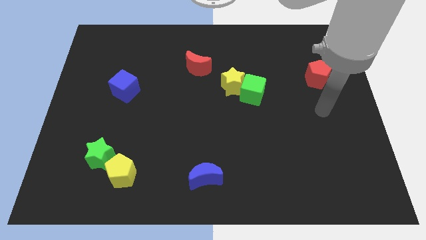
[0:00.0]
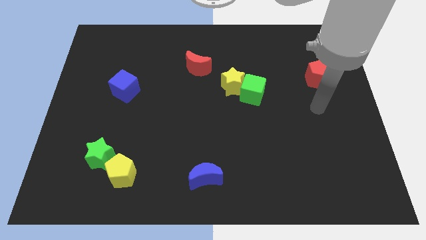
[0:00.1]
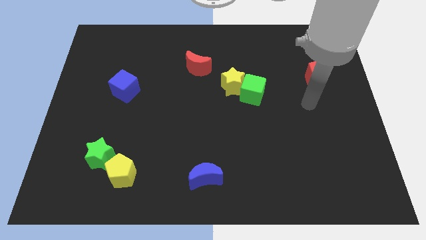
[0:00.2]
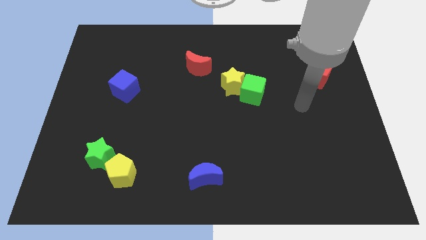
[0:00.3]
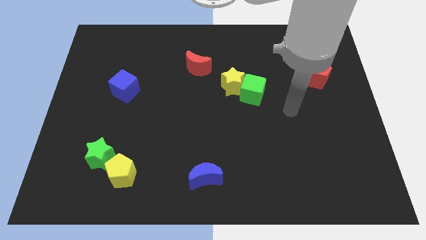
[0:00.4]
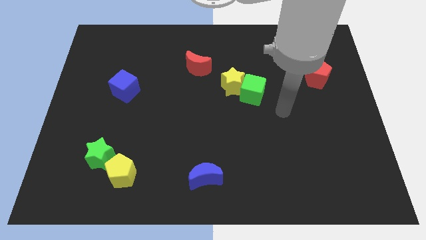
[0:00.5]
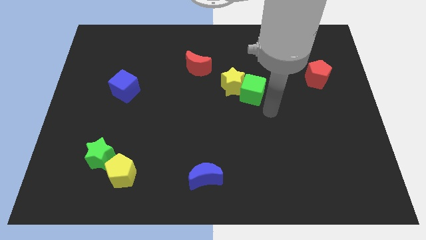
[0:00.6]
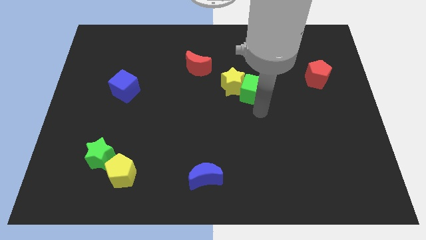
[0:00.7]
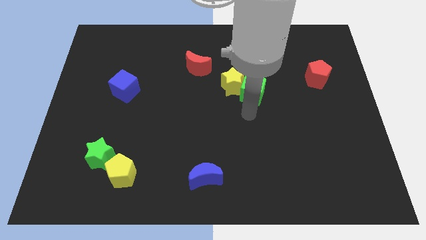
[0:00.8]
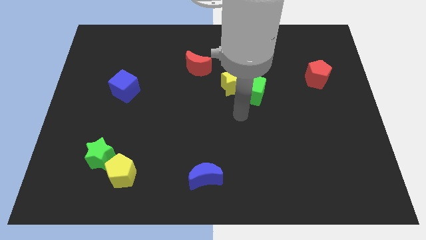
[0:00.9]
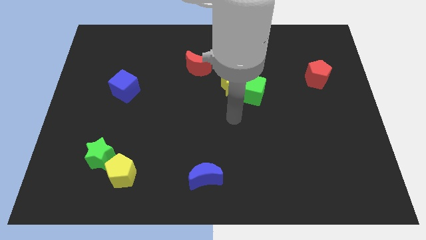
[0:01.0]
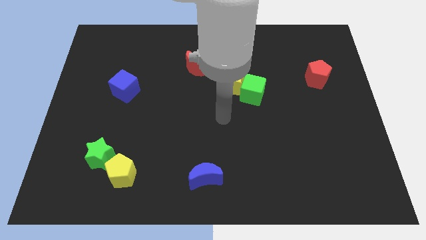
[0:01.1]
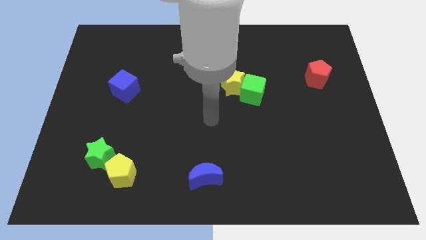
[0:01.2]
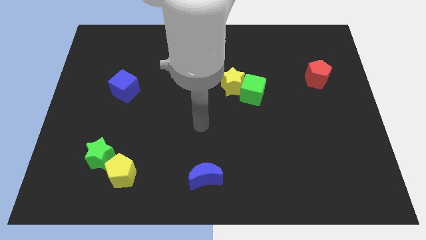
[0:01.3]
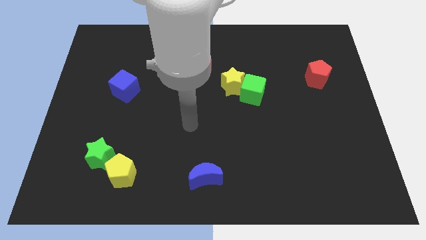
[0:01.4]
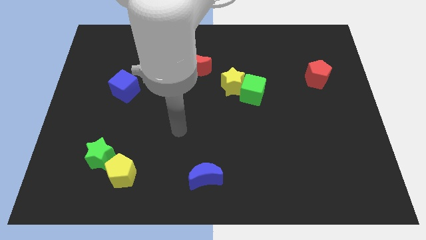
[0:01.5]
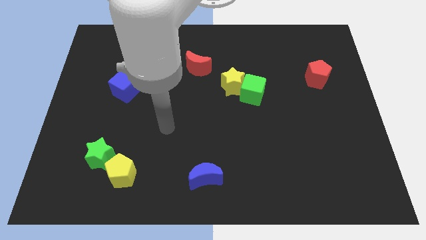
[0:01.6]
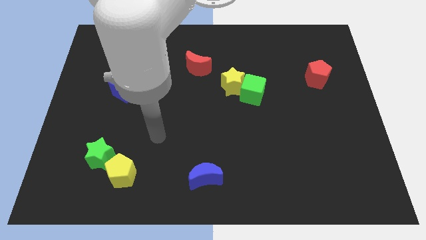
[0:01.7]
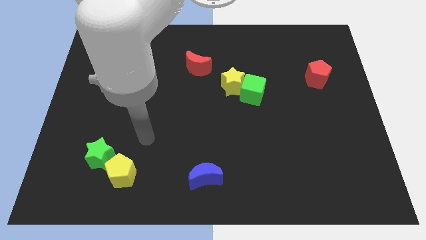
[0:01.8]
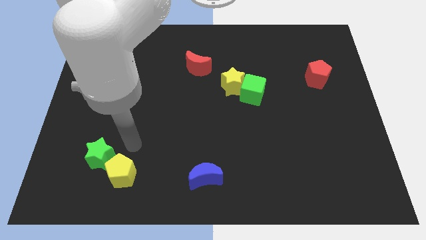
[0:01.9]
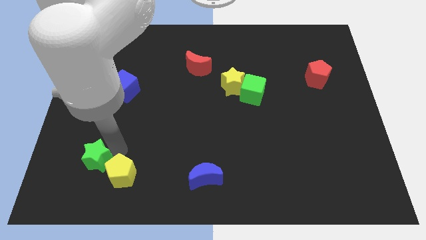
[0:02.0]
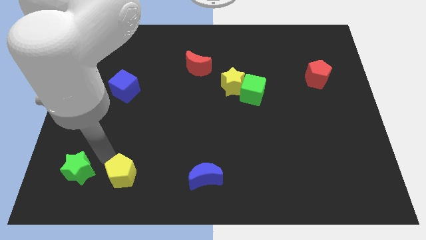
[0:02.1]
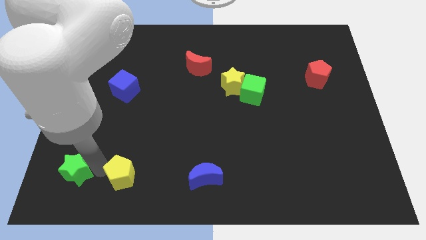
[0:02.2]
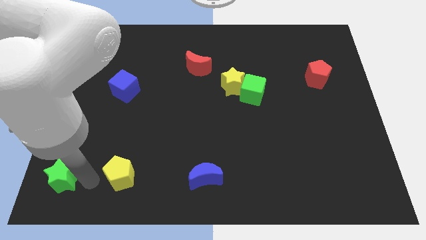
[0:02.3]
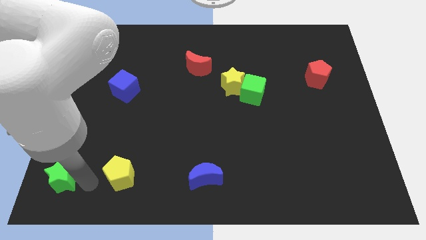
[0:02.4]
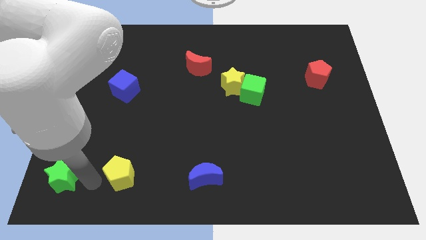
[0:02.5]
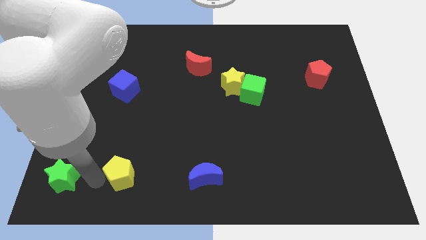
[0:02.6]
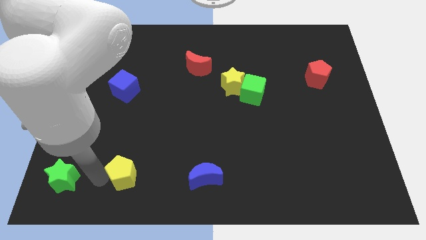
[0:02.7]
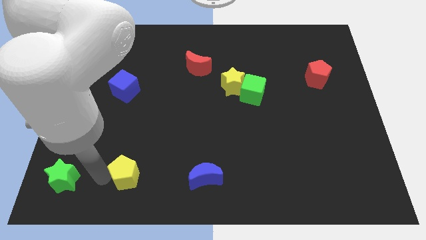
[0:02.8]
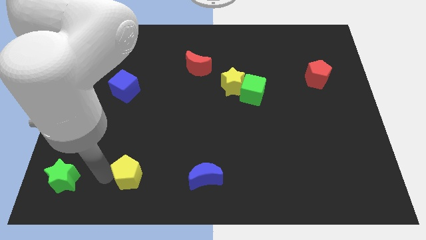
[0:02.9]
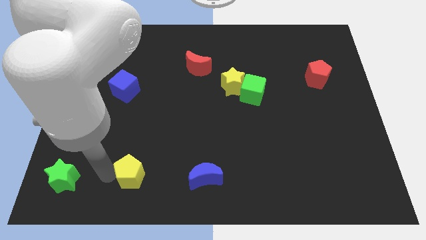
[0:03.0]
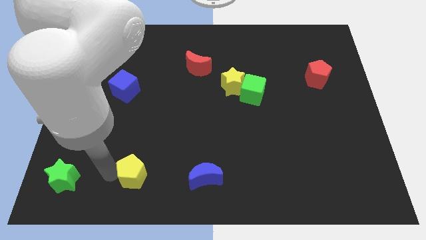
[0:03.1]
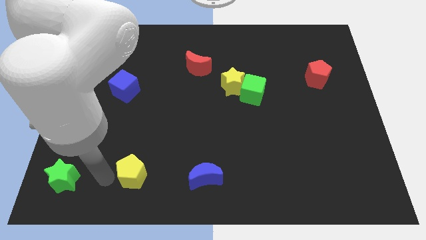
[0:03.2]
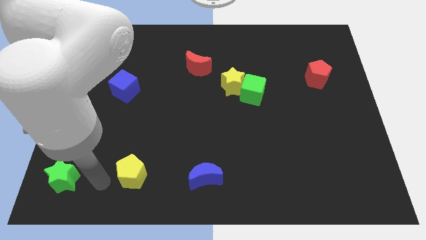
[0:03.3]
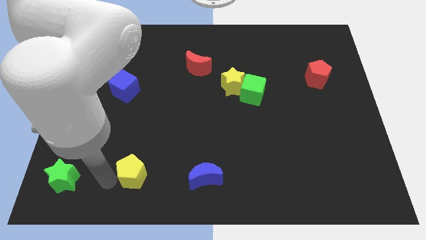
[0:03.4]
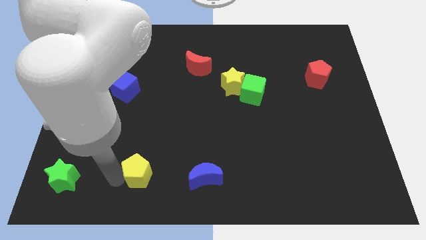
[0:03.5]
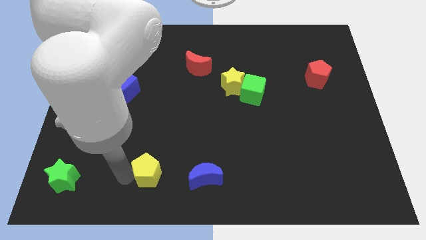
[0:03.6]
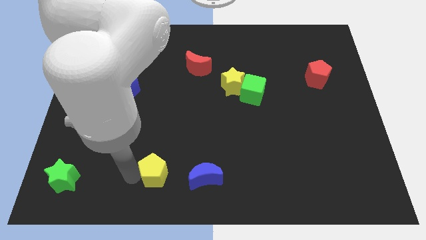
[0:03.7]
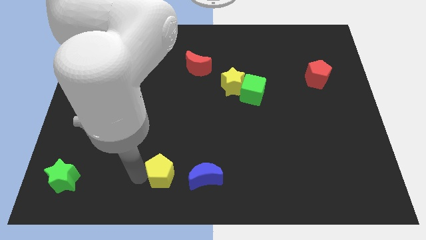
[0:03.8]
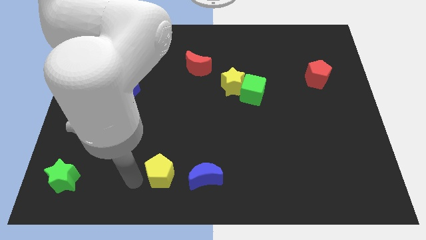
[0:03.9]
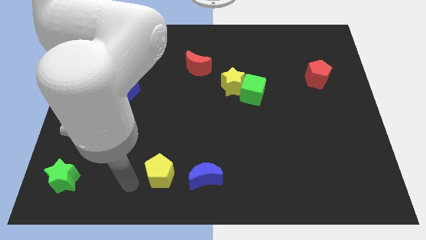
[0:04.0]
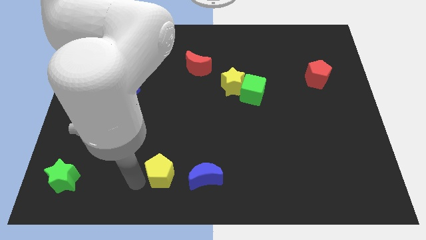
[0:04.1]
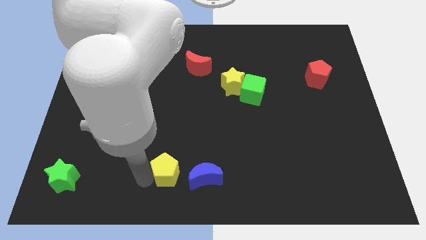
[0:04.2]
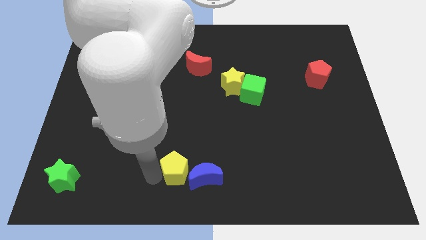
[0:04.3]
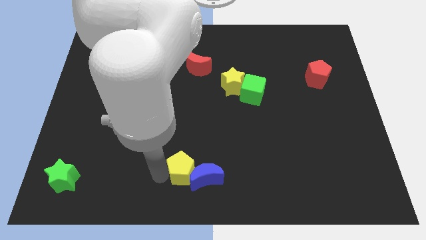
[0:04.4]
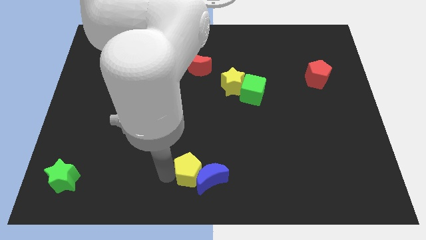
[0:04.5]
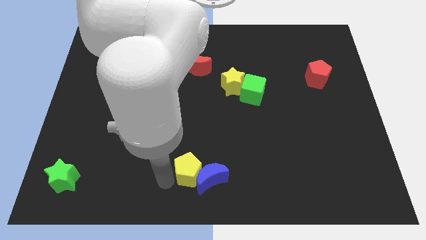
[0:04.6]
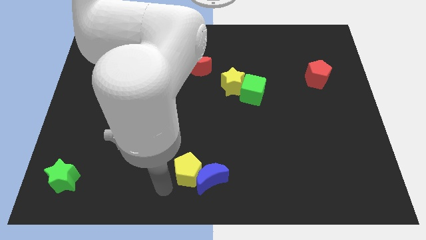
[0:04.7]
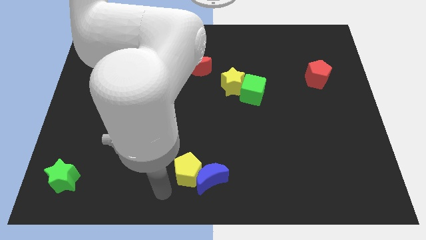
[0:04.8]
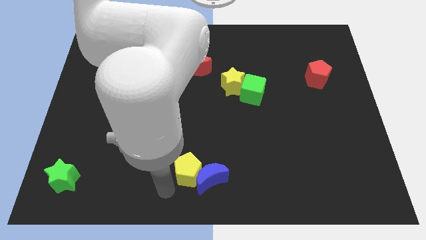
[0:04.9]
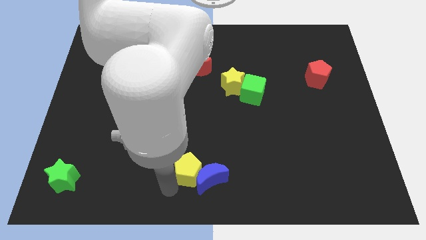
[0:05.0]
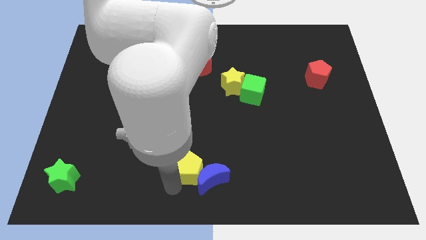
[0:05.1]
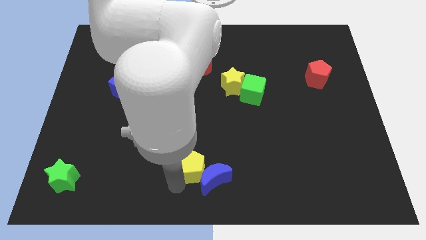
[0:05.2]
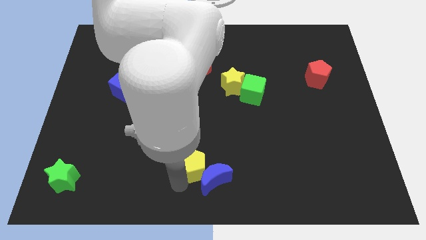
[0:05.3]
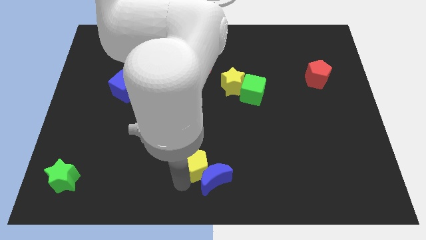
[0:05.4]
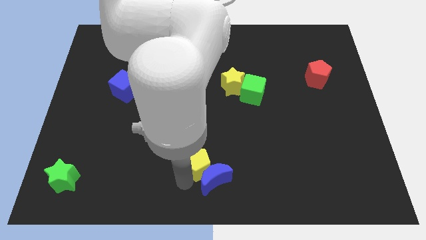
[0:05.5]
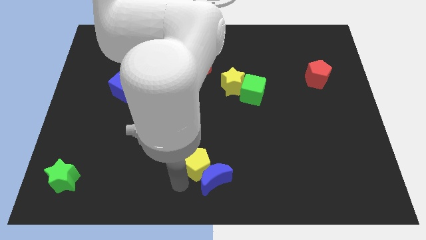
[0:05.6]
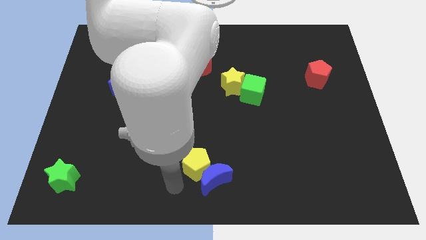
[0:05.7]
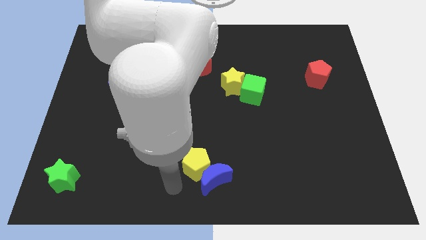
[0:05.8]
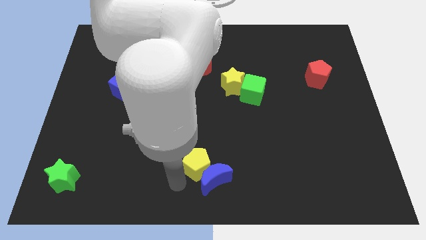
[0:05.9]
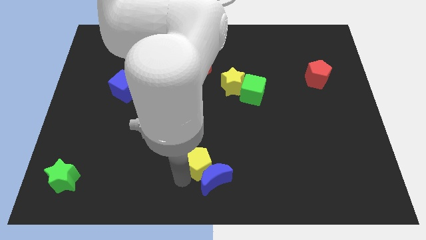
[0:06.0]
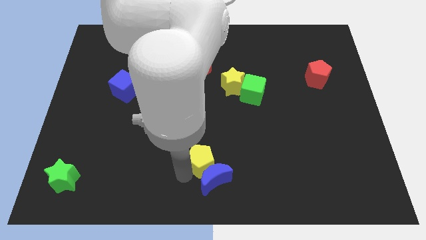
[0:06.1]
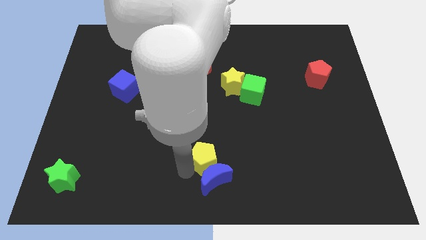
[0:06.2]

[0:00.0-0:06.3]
move the yellow pentagon to the top right of the blue moon

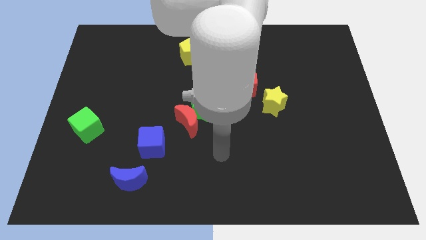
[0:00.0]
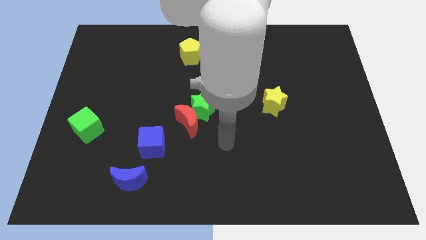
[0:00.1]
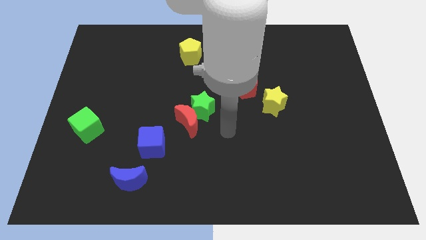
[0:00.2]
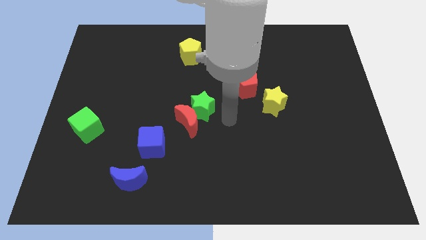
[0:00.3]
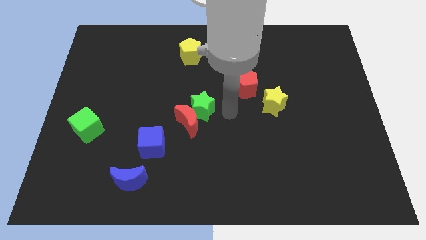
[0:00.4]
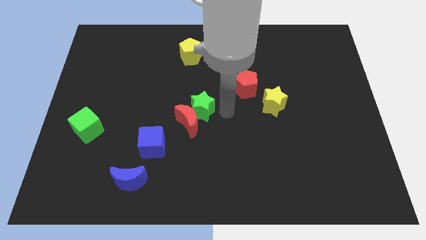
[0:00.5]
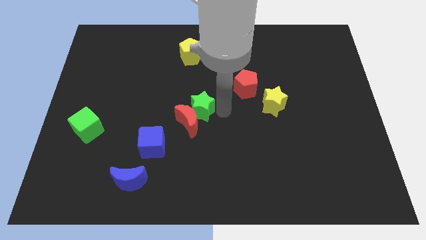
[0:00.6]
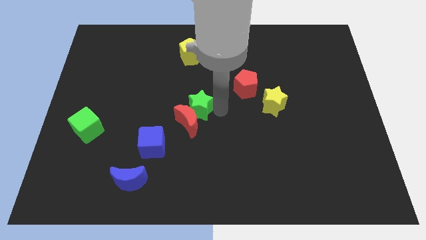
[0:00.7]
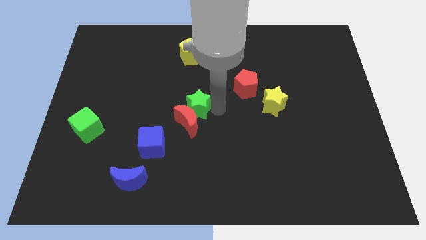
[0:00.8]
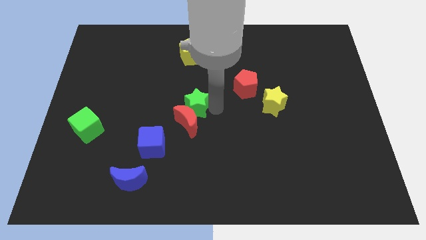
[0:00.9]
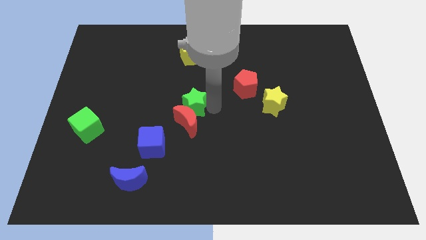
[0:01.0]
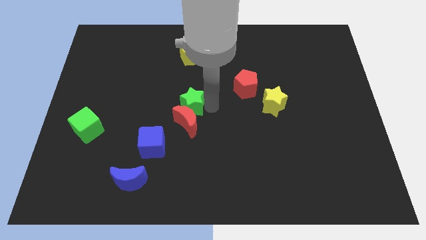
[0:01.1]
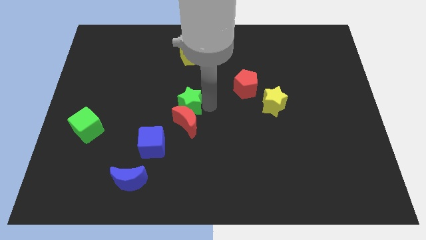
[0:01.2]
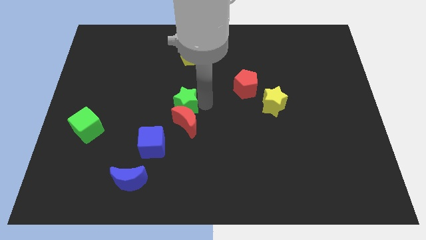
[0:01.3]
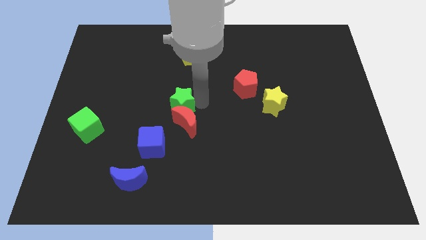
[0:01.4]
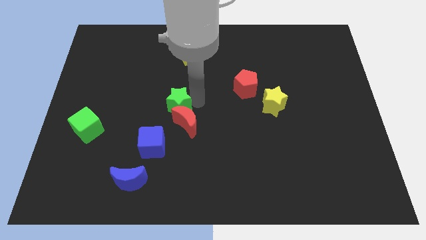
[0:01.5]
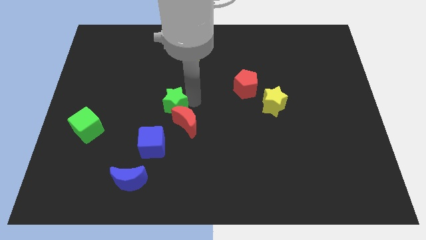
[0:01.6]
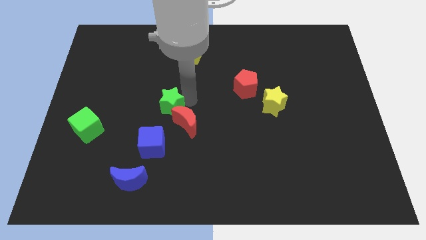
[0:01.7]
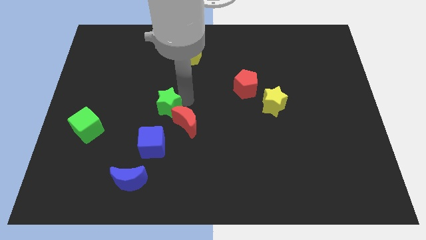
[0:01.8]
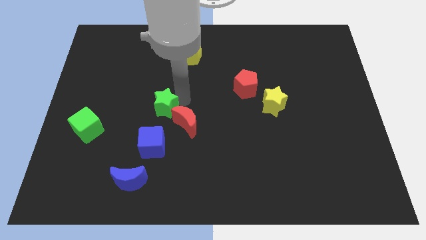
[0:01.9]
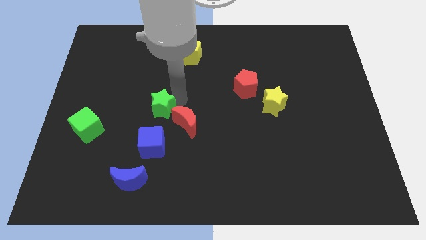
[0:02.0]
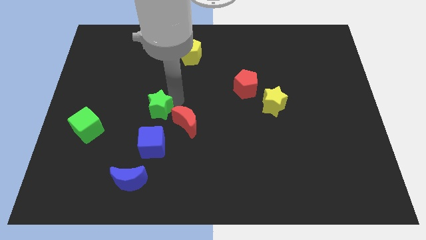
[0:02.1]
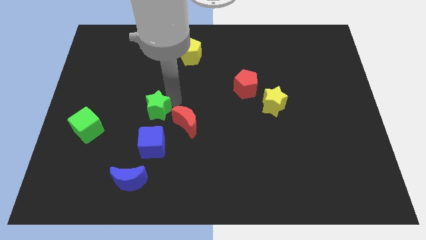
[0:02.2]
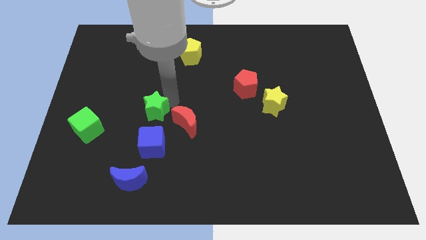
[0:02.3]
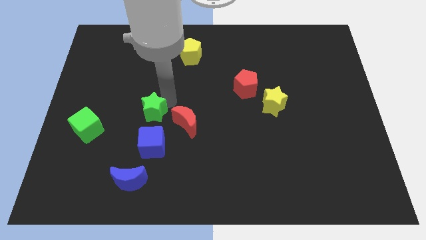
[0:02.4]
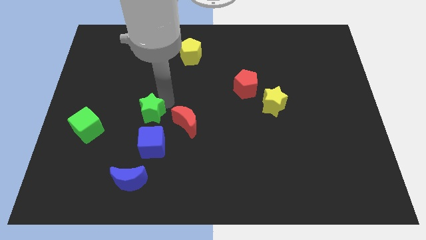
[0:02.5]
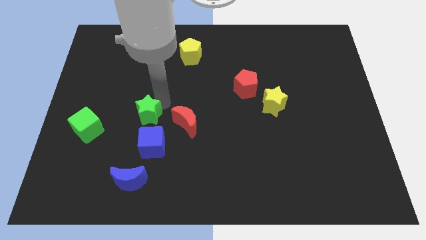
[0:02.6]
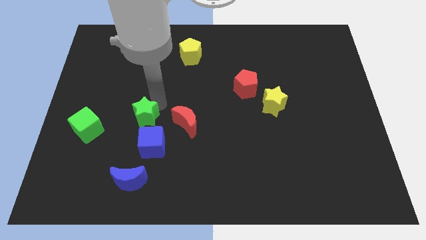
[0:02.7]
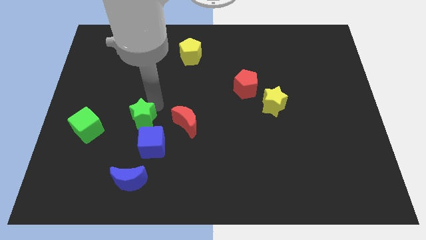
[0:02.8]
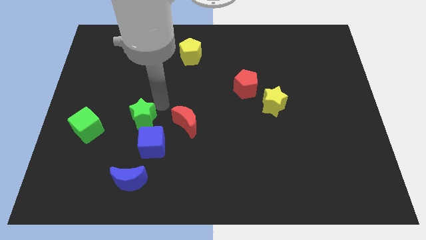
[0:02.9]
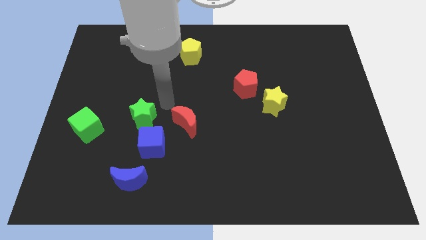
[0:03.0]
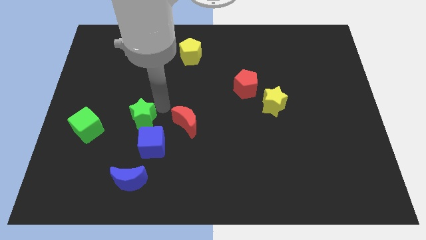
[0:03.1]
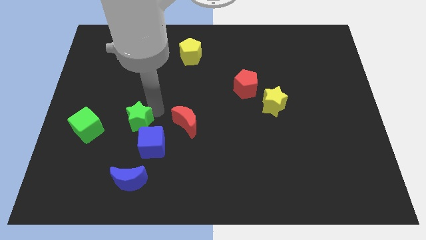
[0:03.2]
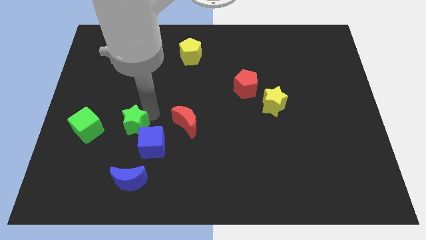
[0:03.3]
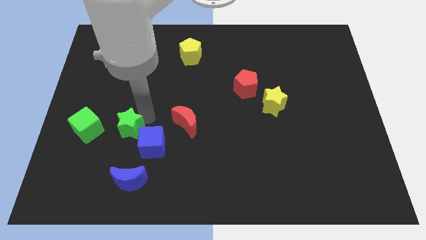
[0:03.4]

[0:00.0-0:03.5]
put the green star to the left side of the blue cube
